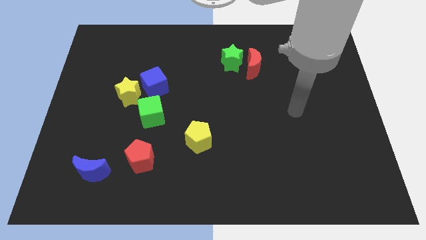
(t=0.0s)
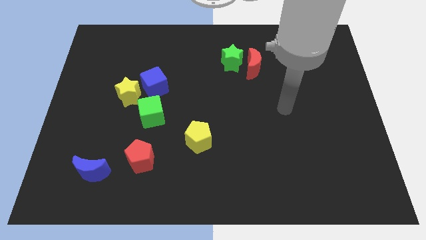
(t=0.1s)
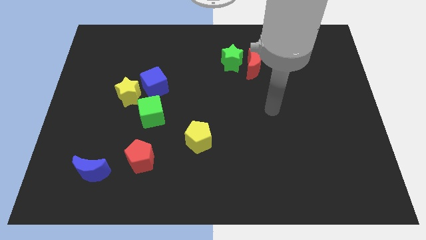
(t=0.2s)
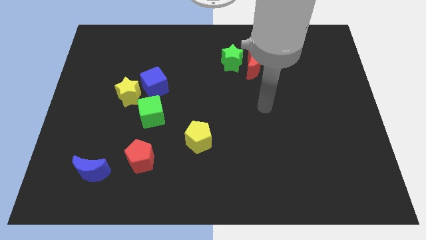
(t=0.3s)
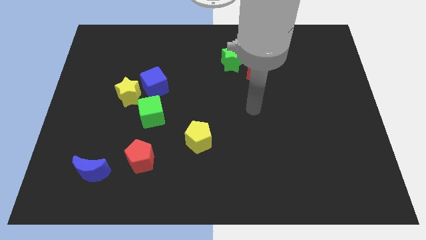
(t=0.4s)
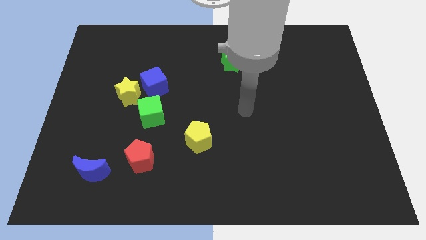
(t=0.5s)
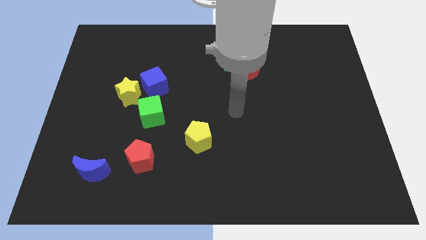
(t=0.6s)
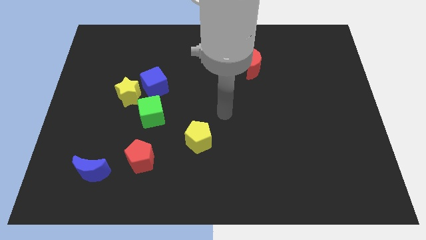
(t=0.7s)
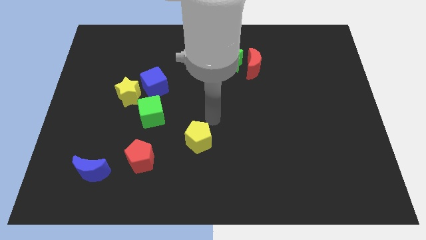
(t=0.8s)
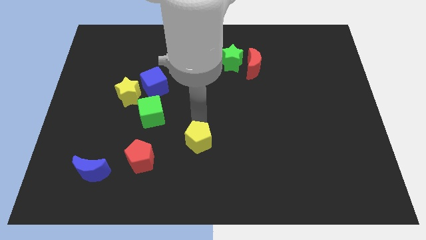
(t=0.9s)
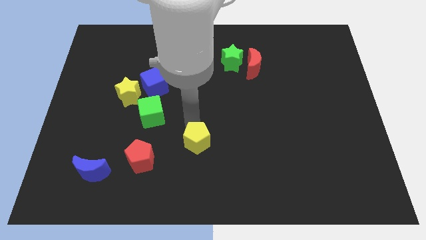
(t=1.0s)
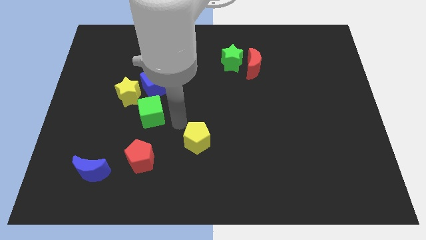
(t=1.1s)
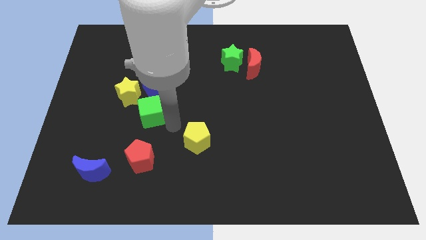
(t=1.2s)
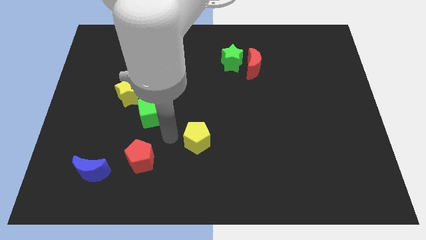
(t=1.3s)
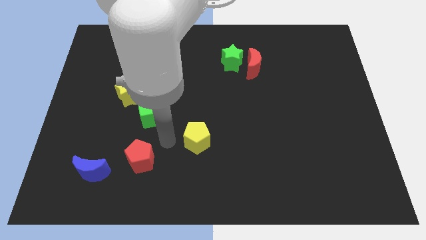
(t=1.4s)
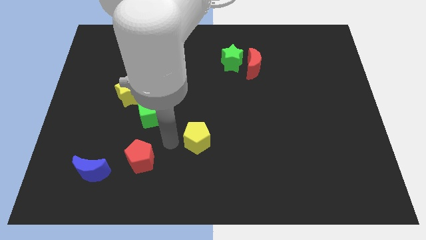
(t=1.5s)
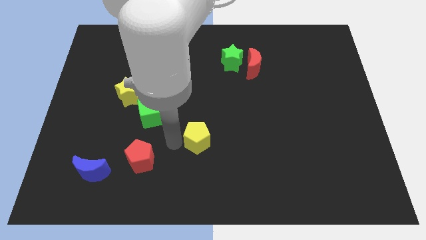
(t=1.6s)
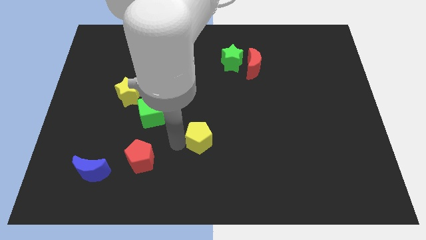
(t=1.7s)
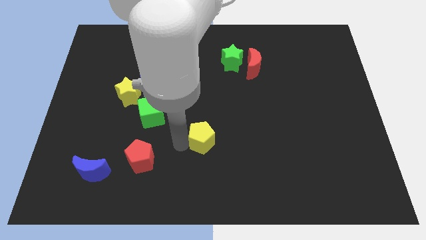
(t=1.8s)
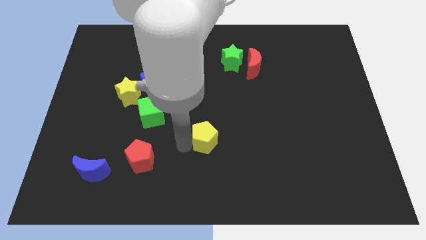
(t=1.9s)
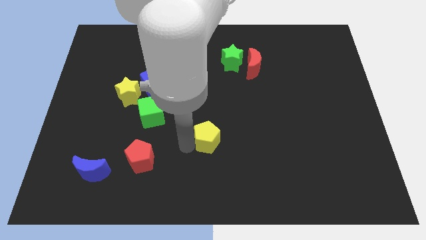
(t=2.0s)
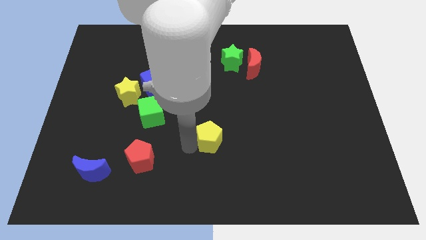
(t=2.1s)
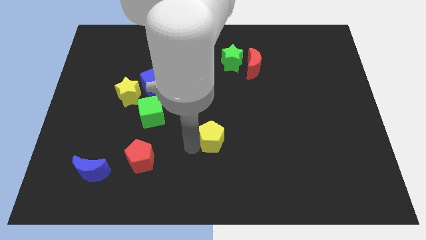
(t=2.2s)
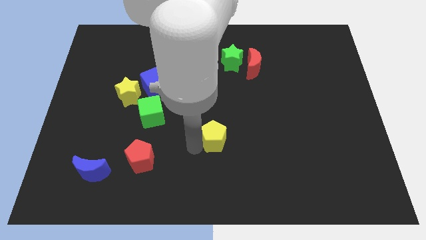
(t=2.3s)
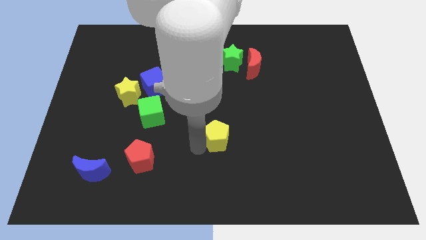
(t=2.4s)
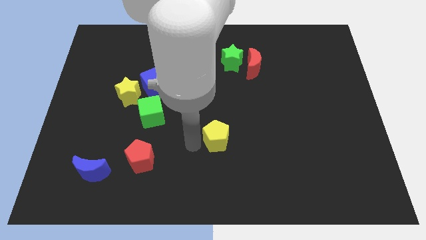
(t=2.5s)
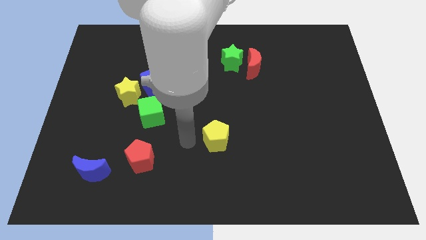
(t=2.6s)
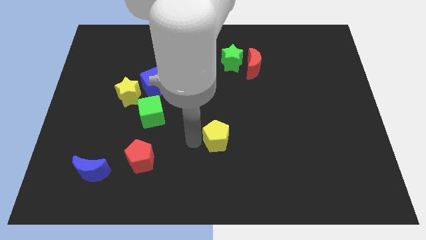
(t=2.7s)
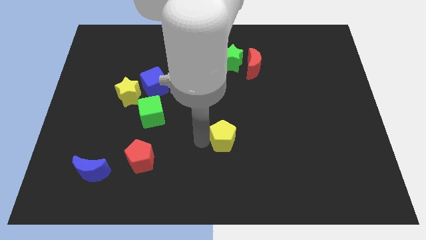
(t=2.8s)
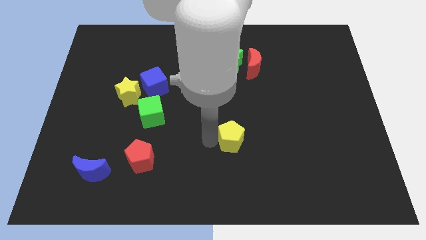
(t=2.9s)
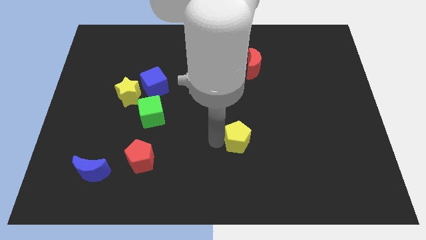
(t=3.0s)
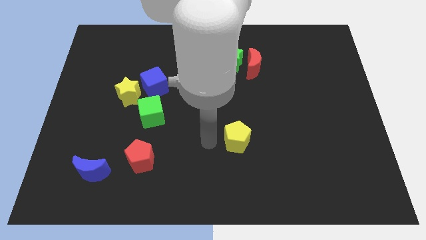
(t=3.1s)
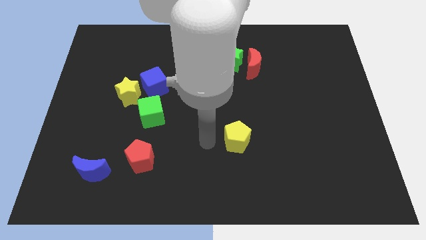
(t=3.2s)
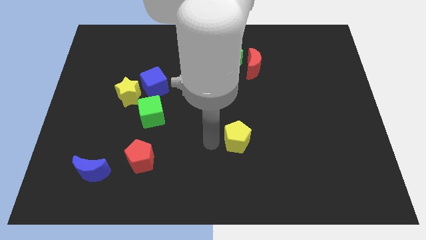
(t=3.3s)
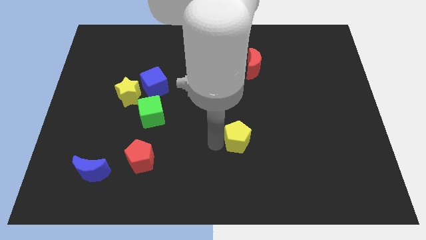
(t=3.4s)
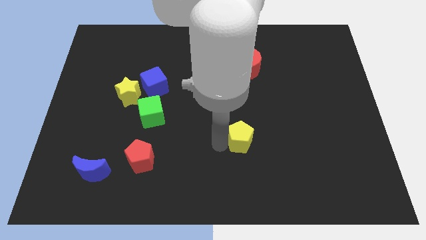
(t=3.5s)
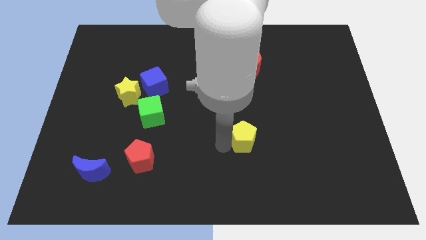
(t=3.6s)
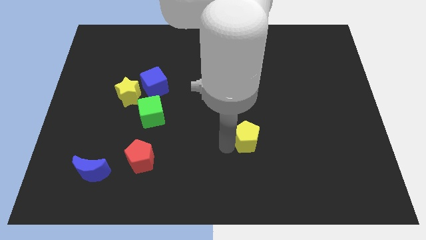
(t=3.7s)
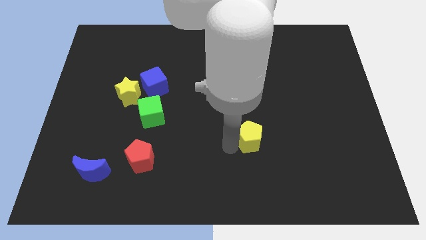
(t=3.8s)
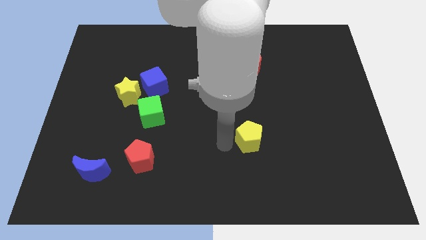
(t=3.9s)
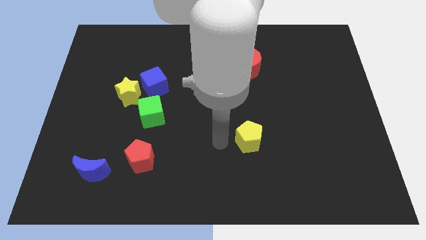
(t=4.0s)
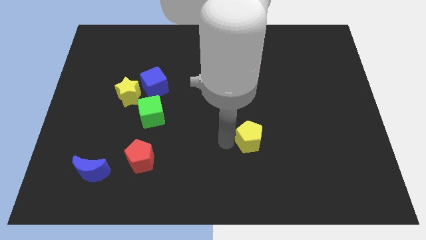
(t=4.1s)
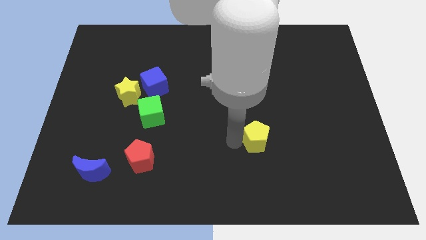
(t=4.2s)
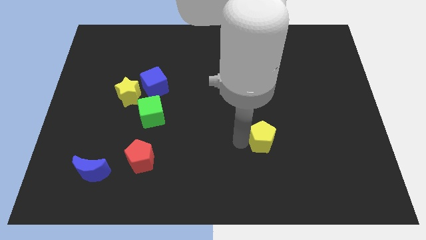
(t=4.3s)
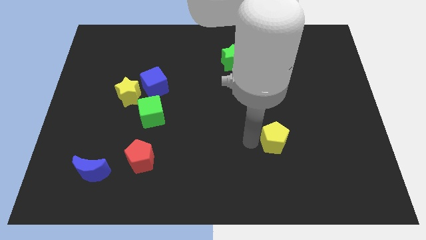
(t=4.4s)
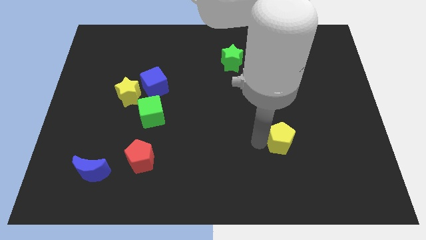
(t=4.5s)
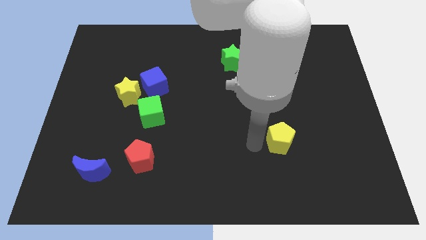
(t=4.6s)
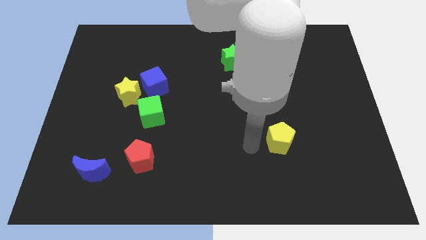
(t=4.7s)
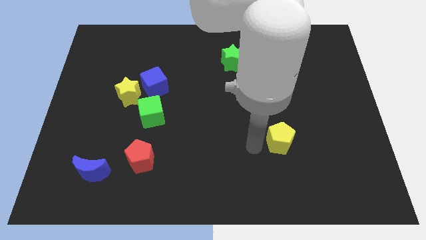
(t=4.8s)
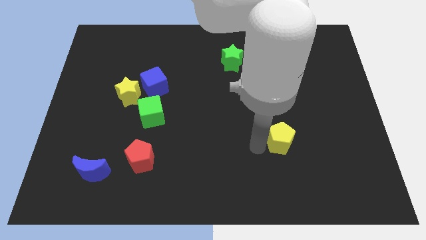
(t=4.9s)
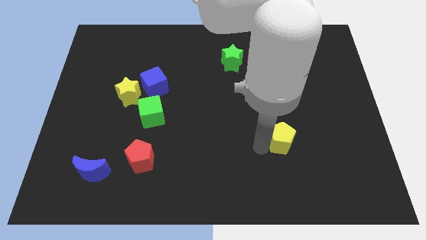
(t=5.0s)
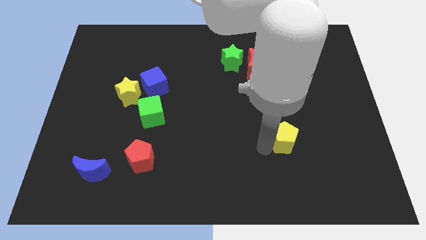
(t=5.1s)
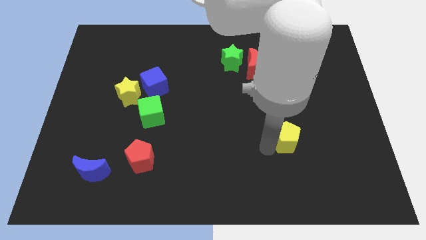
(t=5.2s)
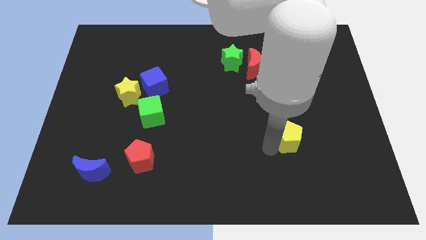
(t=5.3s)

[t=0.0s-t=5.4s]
push the yellow pentagon to the right

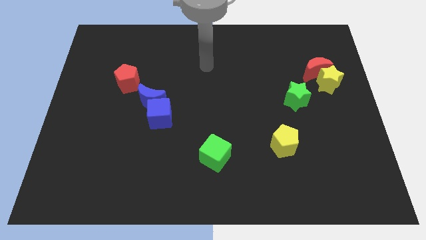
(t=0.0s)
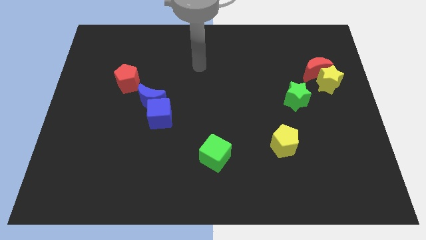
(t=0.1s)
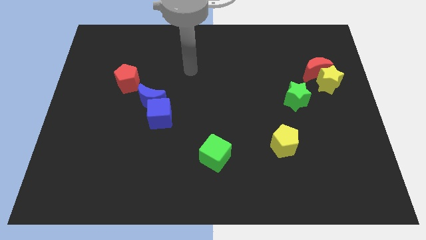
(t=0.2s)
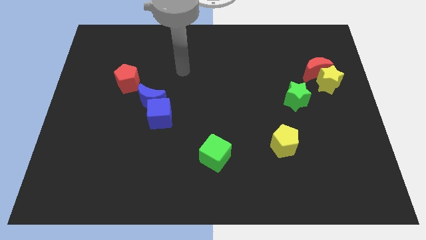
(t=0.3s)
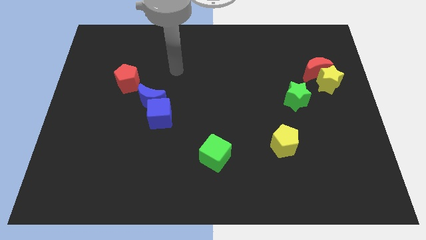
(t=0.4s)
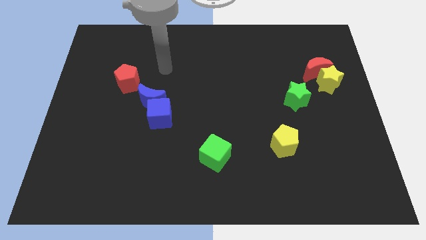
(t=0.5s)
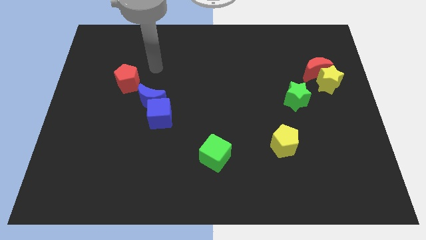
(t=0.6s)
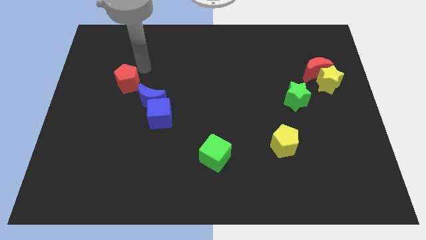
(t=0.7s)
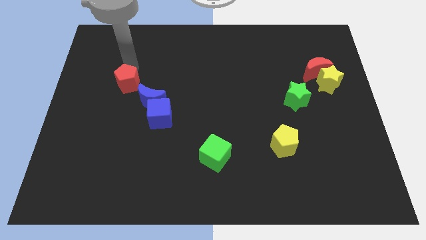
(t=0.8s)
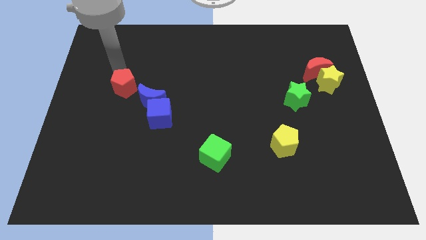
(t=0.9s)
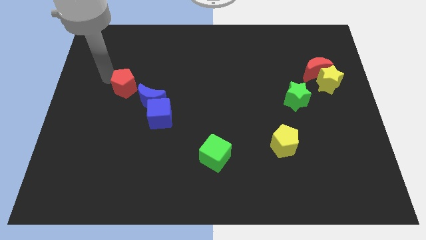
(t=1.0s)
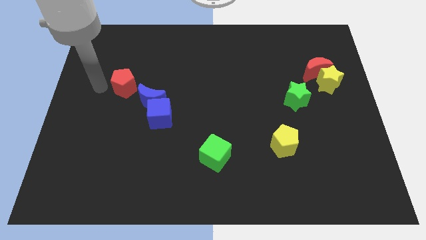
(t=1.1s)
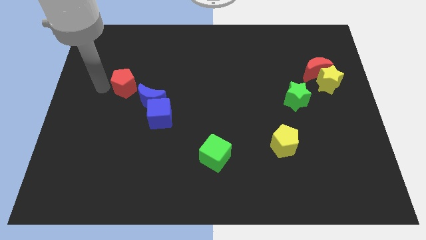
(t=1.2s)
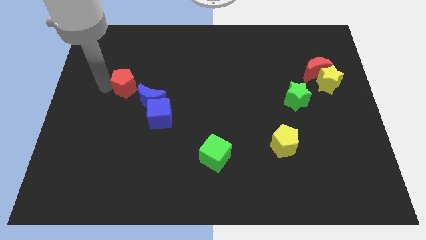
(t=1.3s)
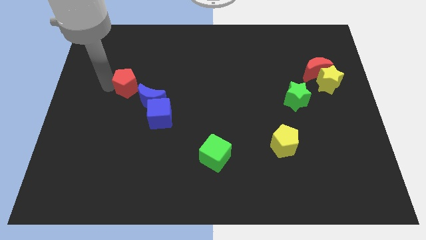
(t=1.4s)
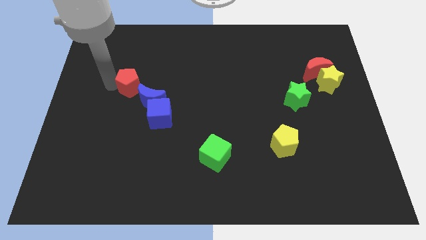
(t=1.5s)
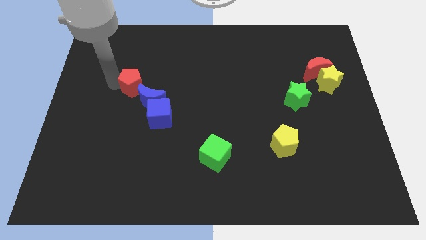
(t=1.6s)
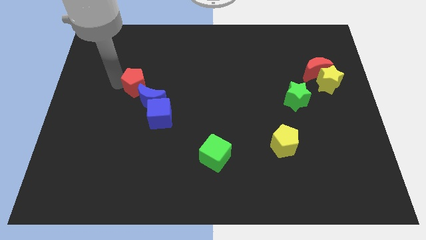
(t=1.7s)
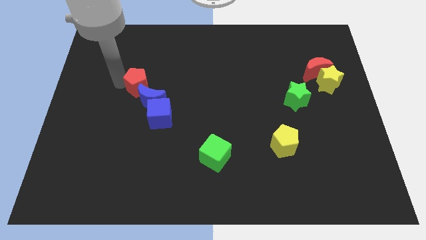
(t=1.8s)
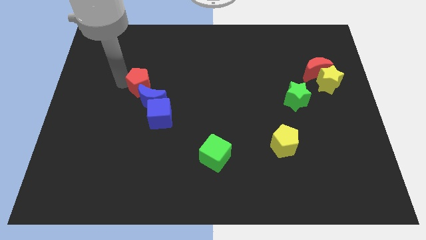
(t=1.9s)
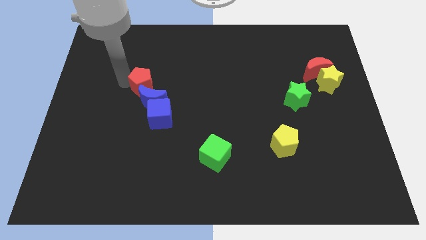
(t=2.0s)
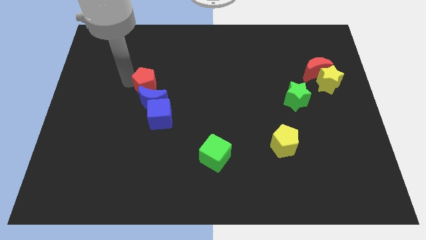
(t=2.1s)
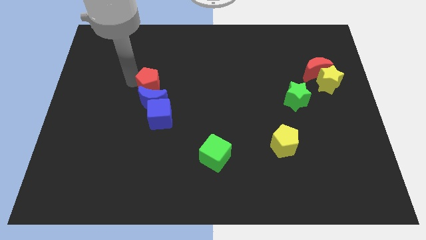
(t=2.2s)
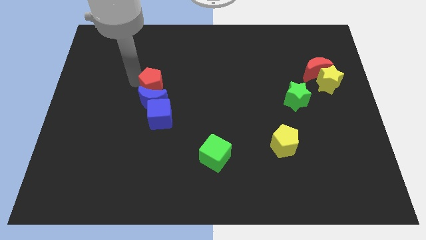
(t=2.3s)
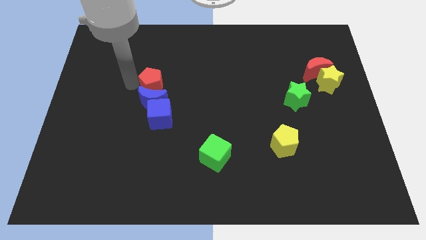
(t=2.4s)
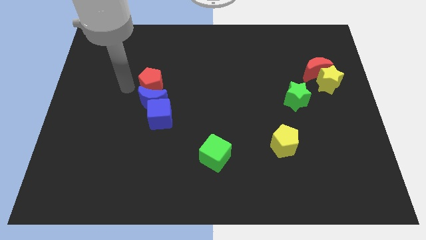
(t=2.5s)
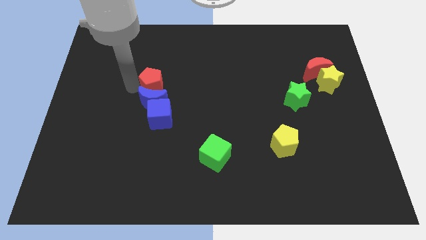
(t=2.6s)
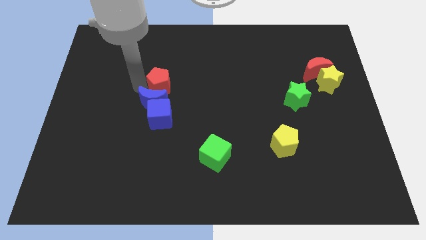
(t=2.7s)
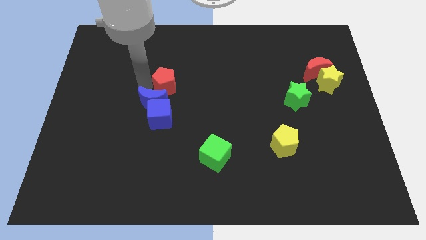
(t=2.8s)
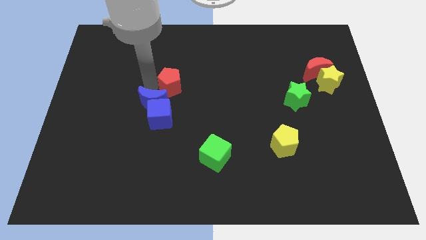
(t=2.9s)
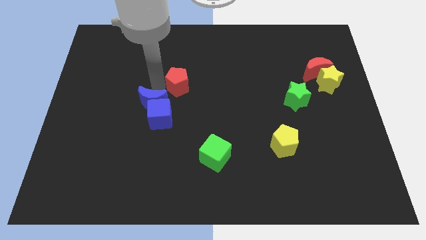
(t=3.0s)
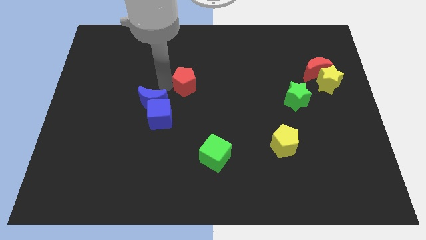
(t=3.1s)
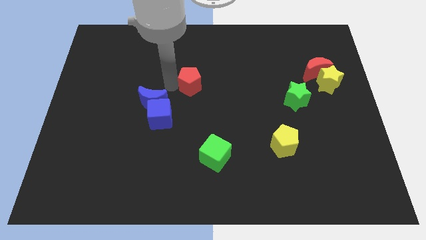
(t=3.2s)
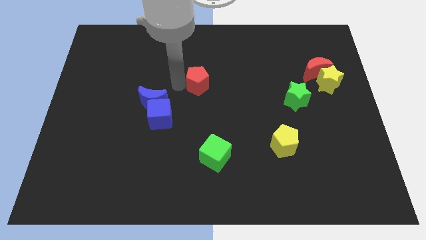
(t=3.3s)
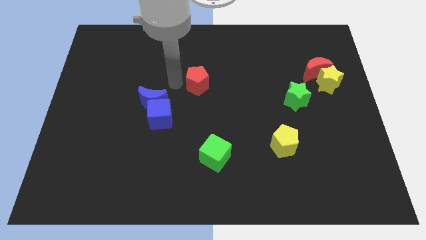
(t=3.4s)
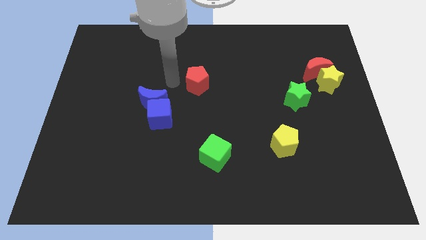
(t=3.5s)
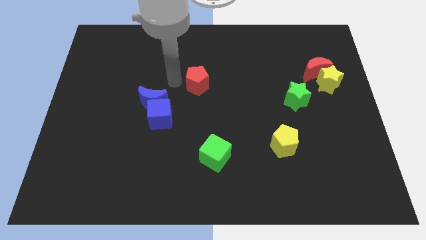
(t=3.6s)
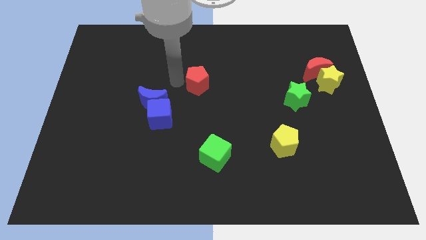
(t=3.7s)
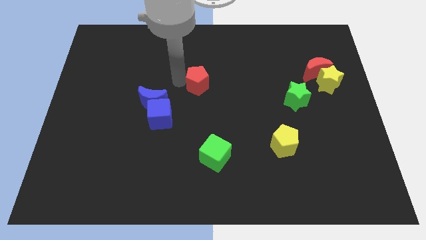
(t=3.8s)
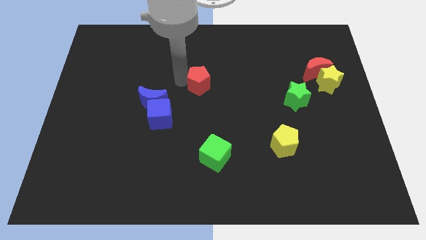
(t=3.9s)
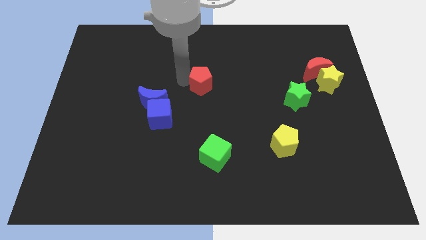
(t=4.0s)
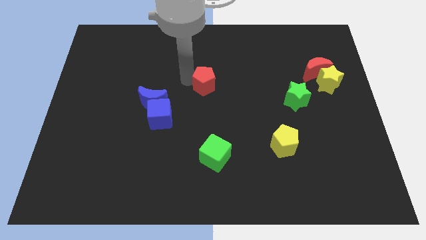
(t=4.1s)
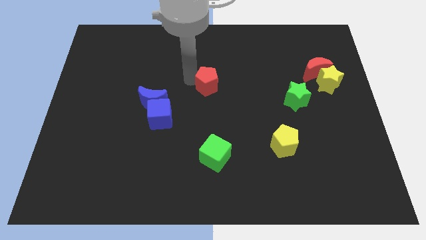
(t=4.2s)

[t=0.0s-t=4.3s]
push the red pentagon to the right
